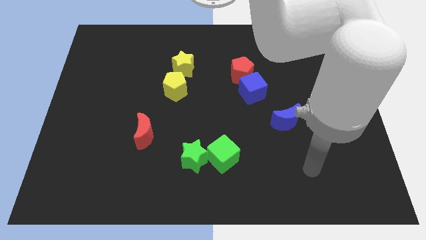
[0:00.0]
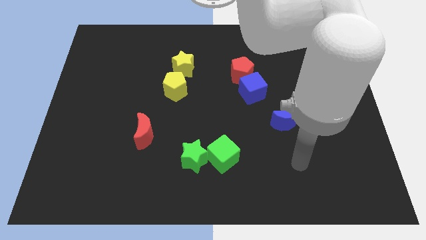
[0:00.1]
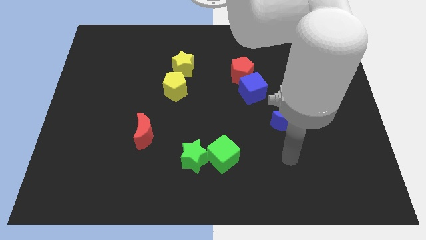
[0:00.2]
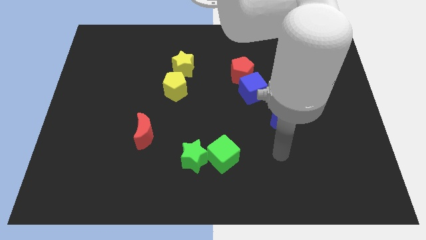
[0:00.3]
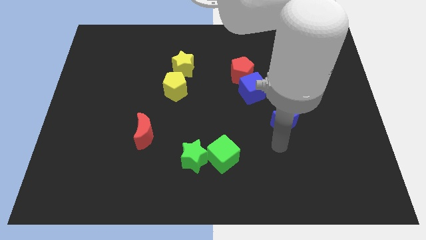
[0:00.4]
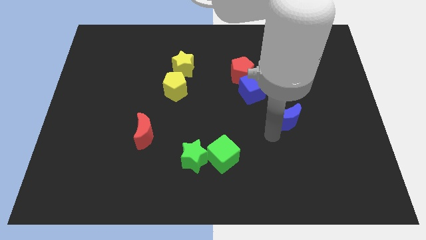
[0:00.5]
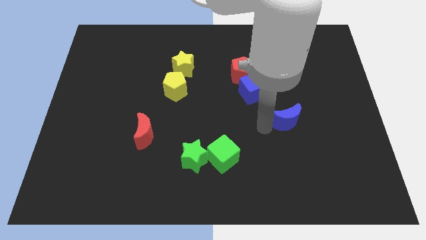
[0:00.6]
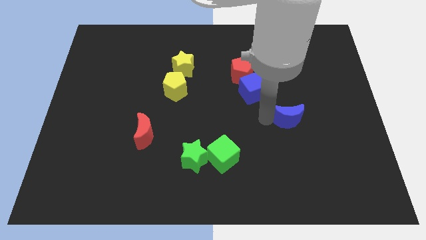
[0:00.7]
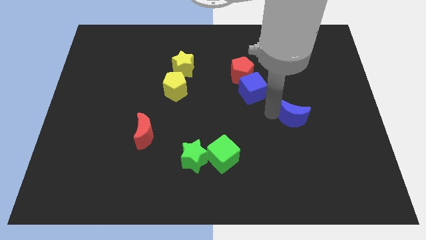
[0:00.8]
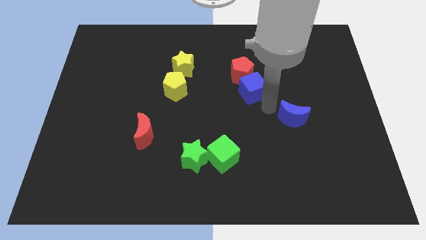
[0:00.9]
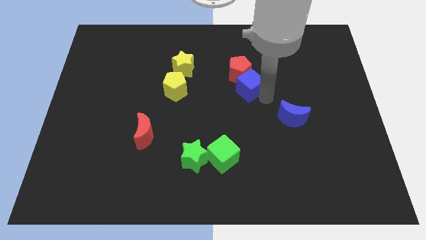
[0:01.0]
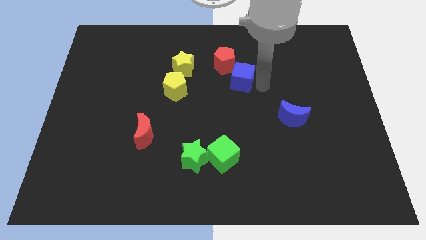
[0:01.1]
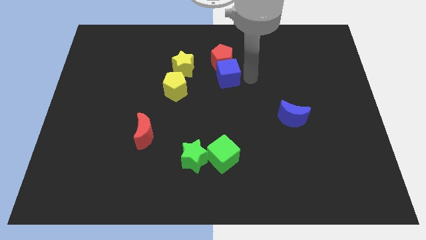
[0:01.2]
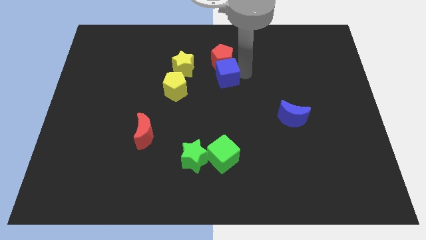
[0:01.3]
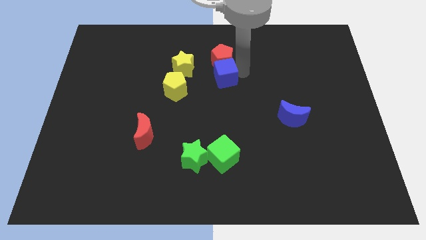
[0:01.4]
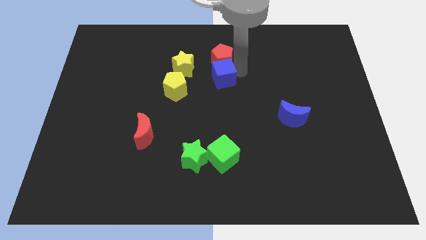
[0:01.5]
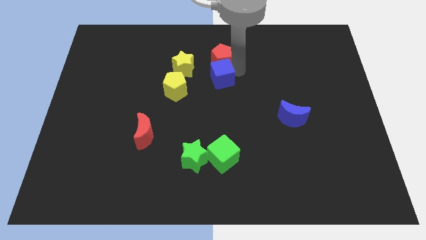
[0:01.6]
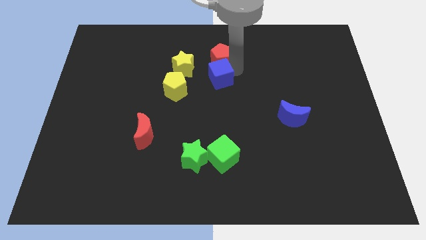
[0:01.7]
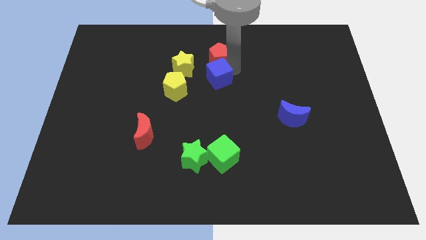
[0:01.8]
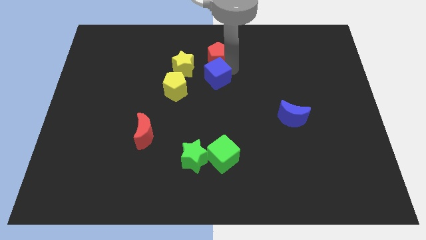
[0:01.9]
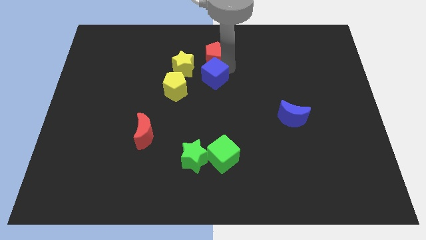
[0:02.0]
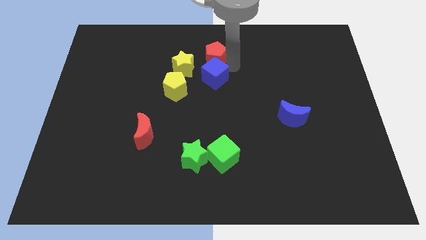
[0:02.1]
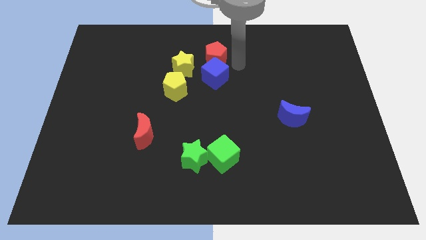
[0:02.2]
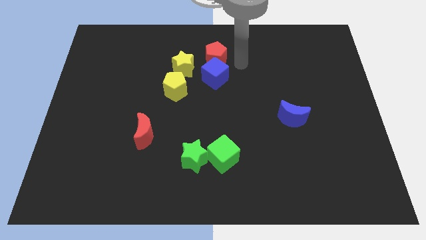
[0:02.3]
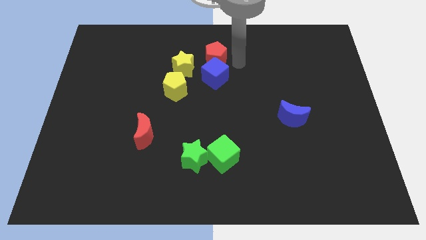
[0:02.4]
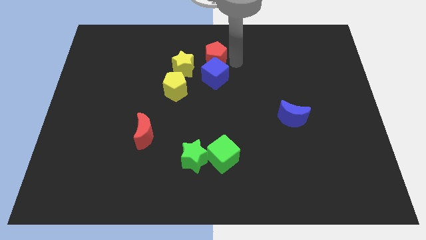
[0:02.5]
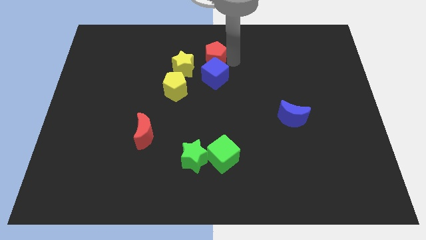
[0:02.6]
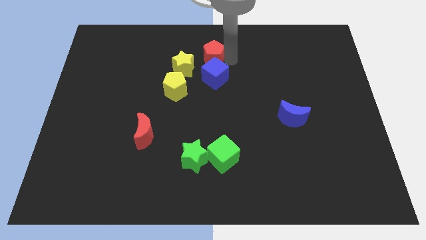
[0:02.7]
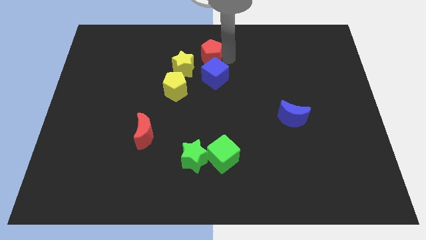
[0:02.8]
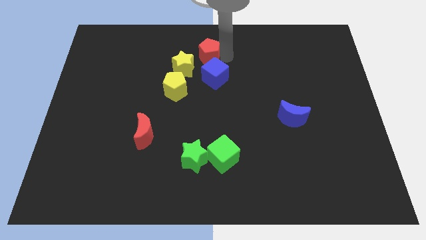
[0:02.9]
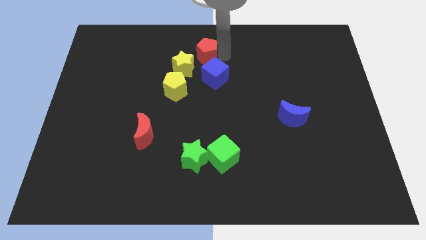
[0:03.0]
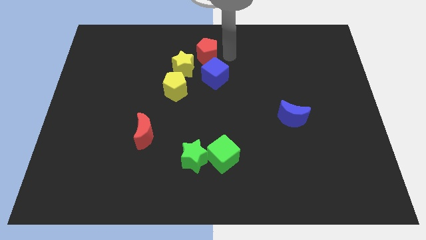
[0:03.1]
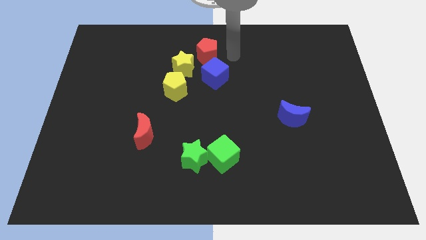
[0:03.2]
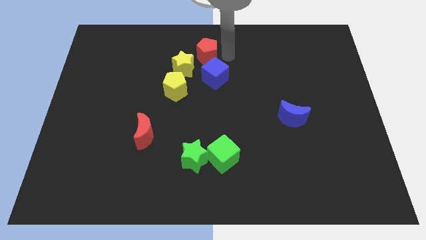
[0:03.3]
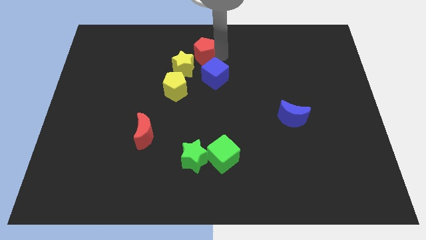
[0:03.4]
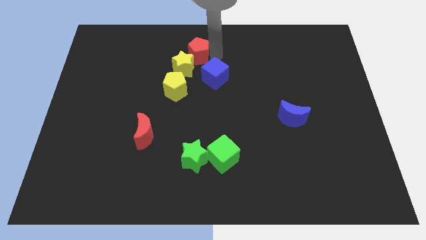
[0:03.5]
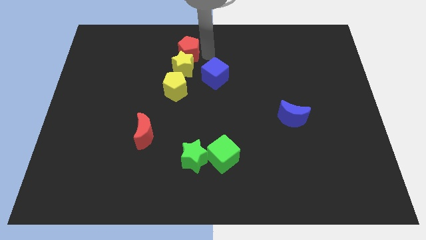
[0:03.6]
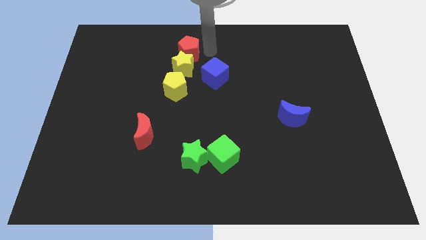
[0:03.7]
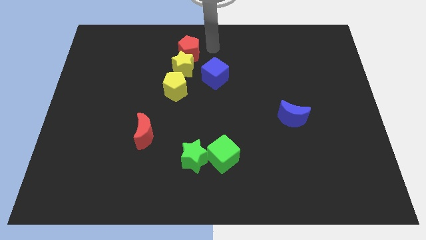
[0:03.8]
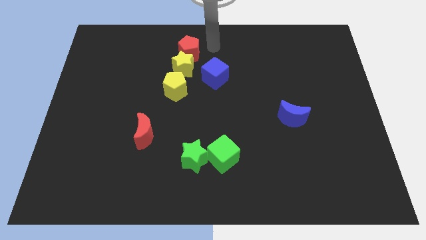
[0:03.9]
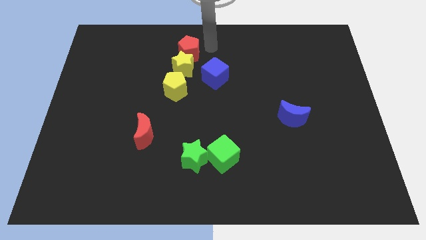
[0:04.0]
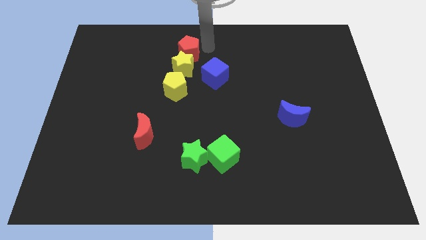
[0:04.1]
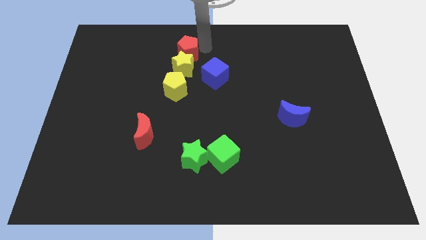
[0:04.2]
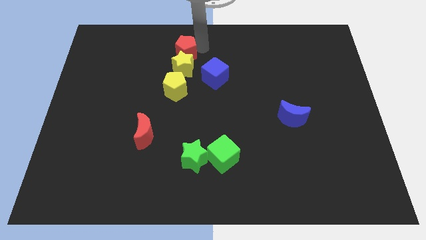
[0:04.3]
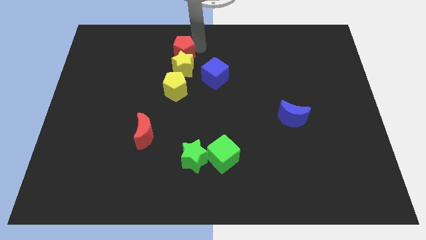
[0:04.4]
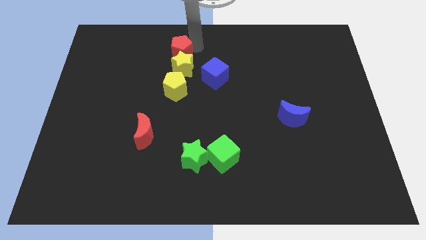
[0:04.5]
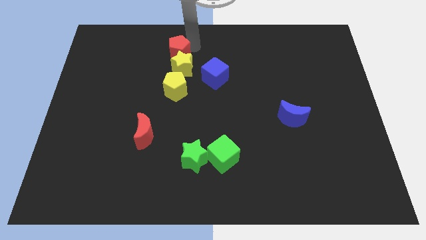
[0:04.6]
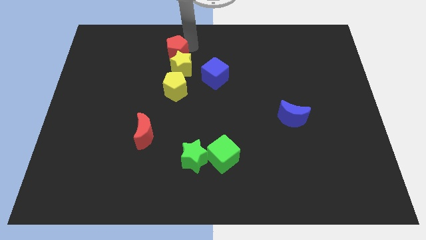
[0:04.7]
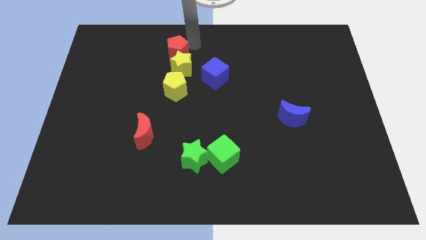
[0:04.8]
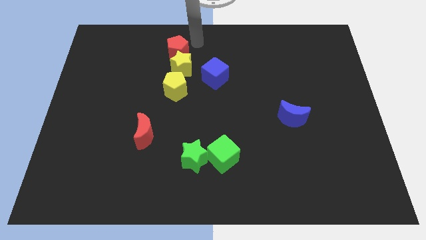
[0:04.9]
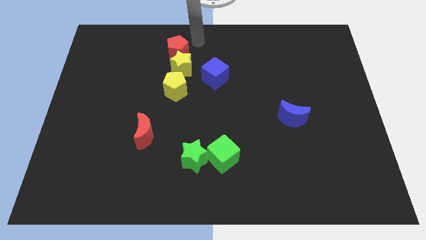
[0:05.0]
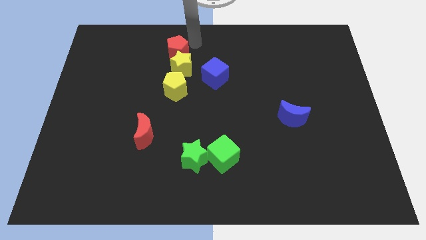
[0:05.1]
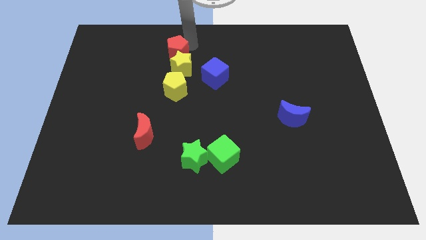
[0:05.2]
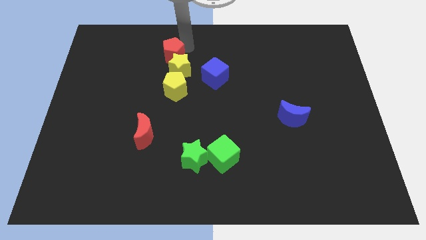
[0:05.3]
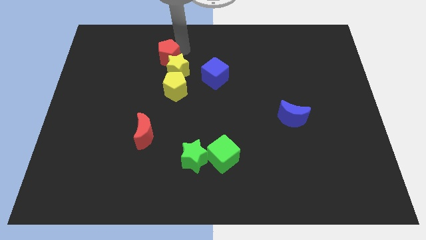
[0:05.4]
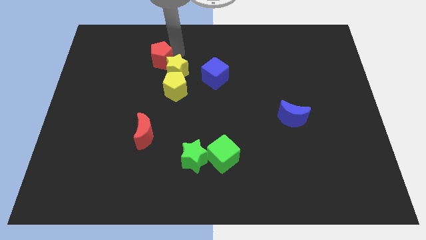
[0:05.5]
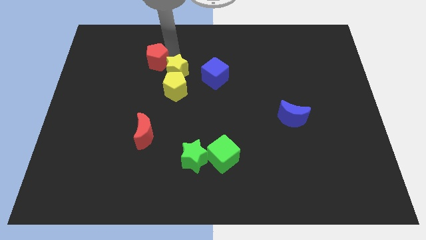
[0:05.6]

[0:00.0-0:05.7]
move the red pentagon to the left

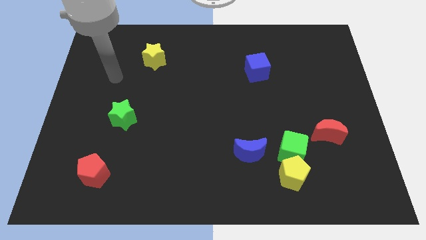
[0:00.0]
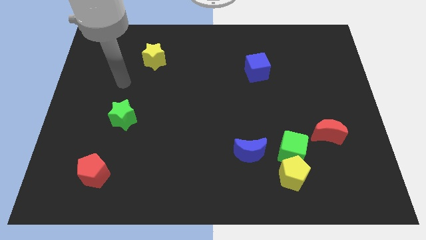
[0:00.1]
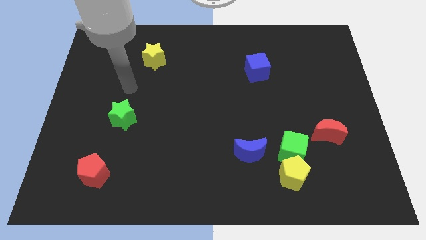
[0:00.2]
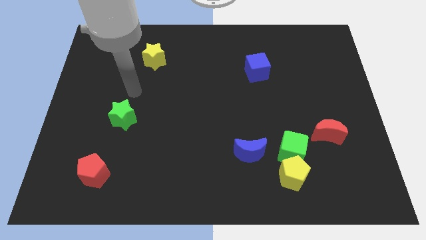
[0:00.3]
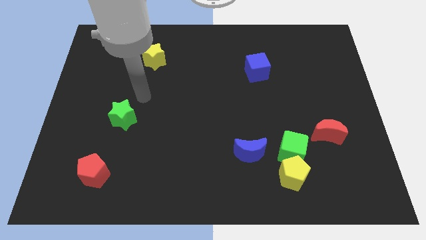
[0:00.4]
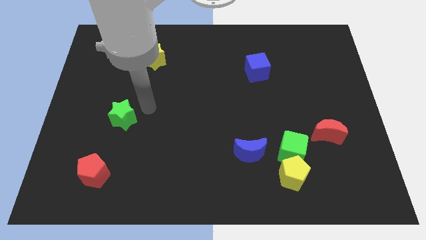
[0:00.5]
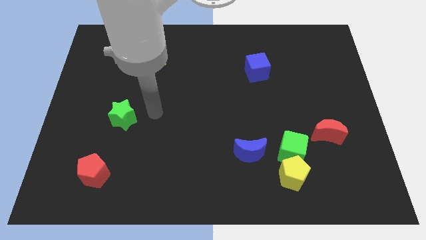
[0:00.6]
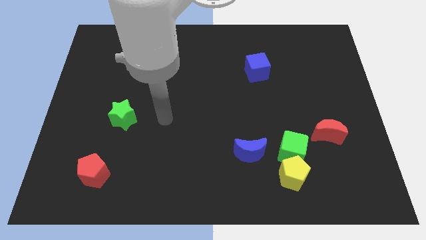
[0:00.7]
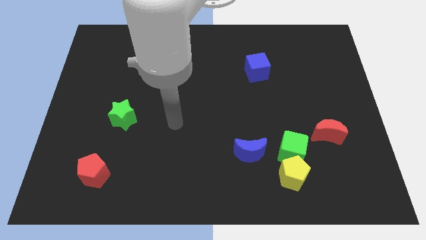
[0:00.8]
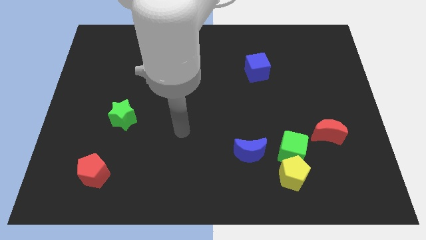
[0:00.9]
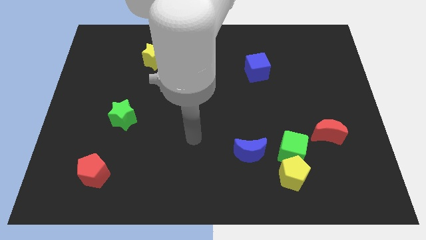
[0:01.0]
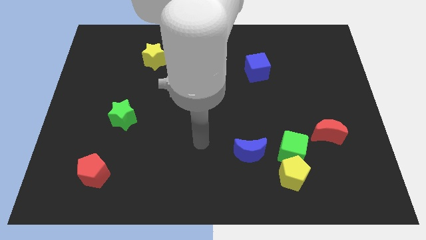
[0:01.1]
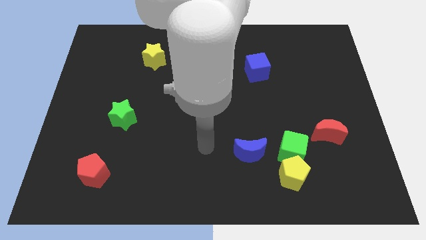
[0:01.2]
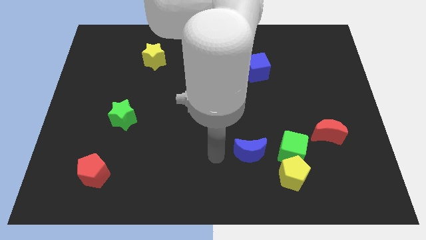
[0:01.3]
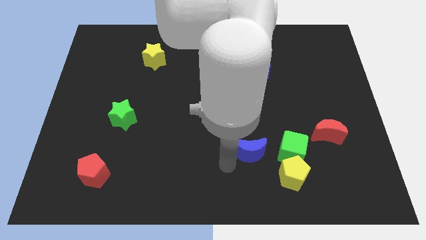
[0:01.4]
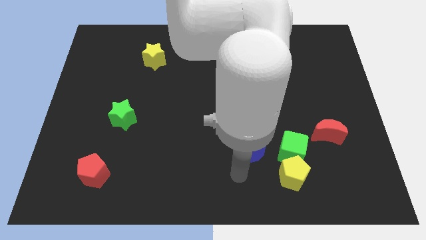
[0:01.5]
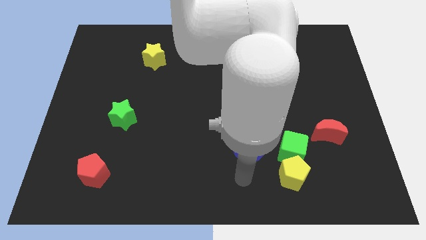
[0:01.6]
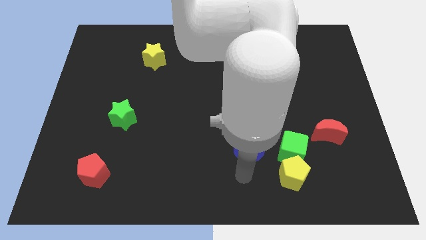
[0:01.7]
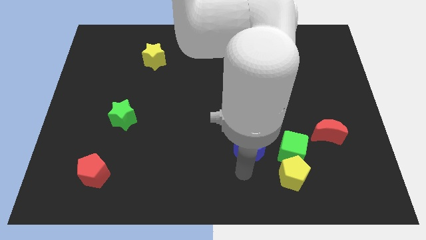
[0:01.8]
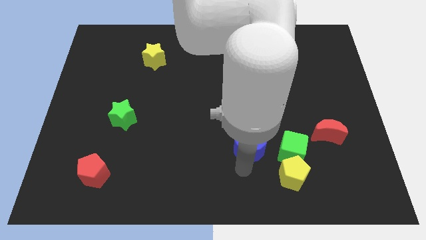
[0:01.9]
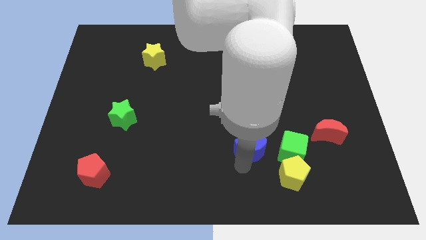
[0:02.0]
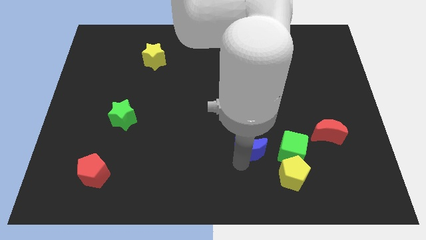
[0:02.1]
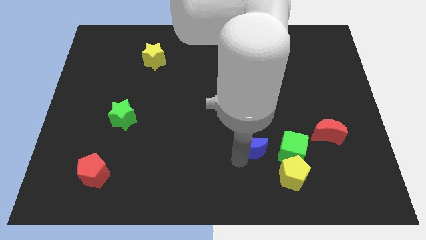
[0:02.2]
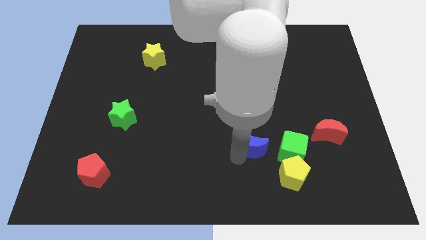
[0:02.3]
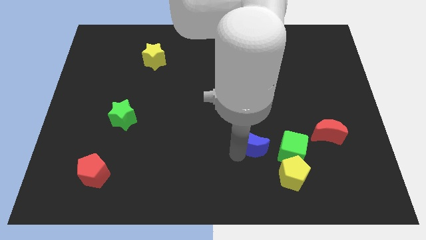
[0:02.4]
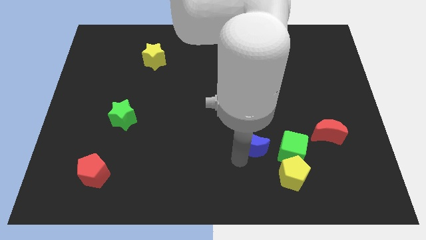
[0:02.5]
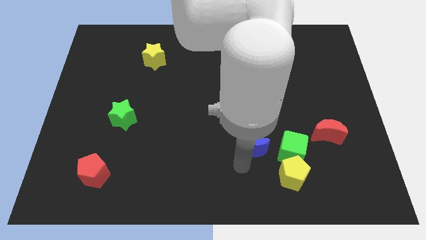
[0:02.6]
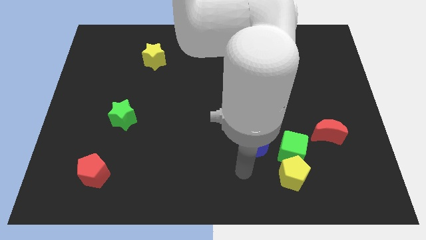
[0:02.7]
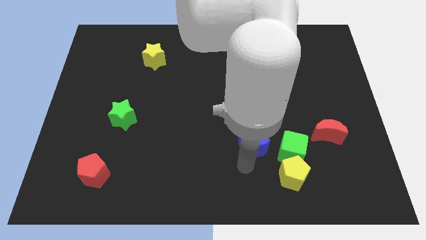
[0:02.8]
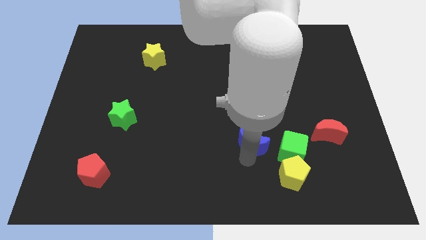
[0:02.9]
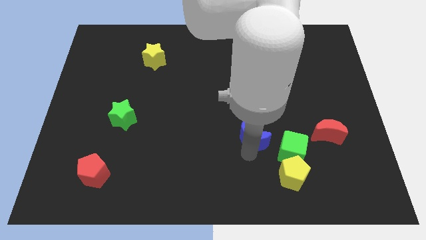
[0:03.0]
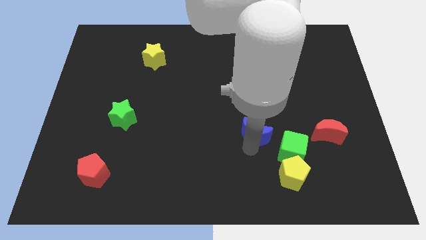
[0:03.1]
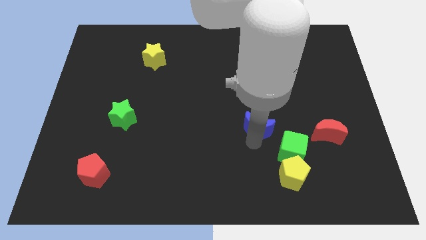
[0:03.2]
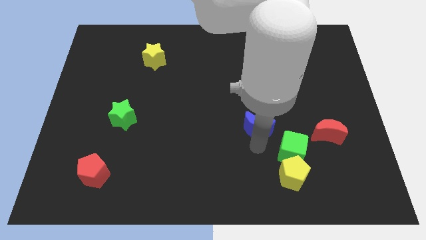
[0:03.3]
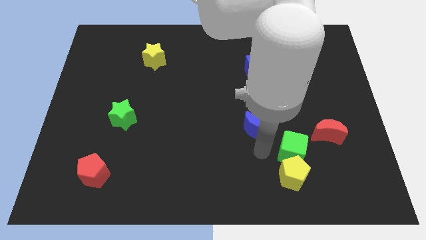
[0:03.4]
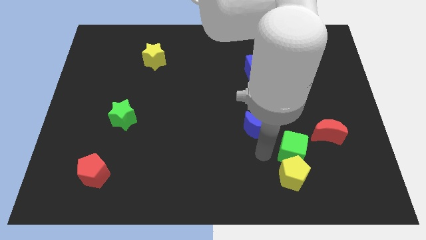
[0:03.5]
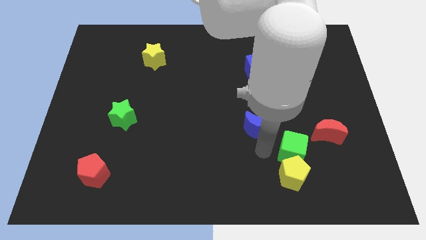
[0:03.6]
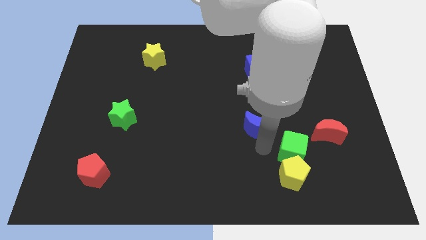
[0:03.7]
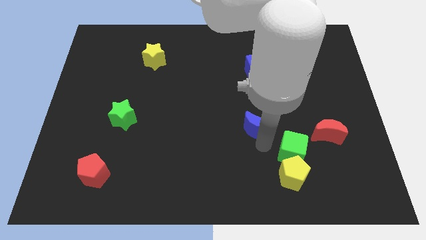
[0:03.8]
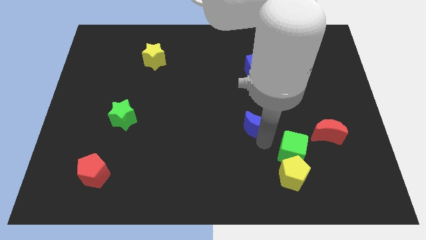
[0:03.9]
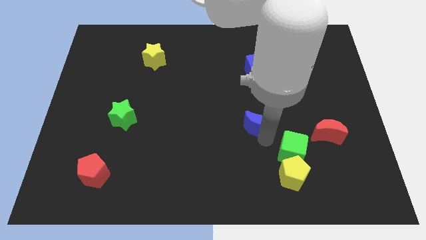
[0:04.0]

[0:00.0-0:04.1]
slide the blue moon a little bit upwards
